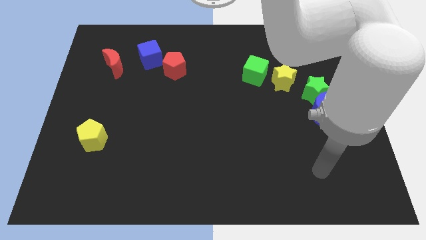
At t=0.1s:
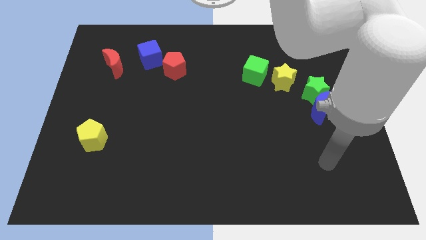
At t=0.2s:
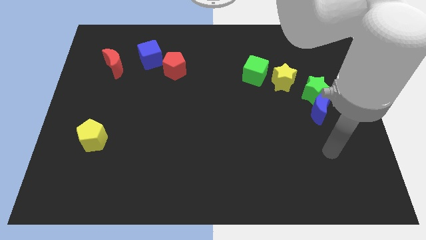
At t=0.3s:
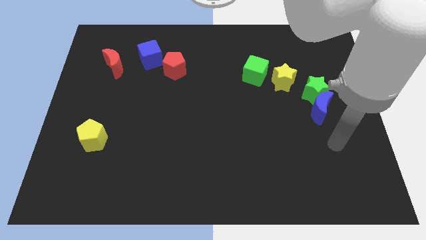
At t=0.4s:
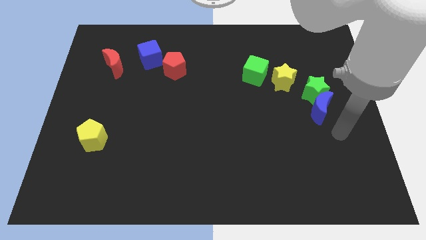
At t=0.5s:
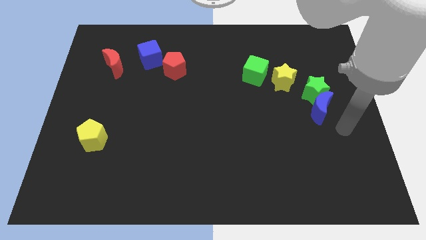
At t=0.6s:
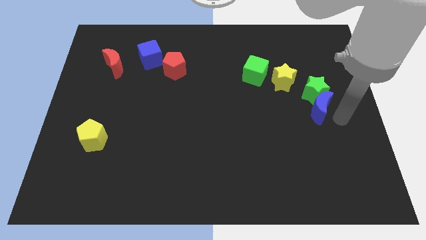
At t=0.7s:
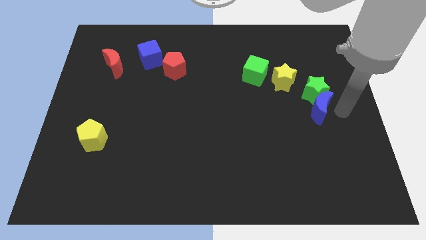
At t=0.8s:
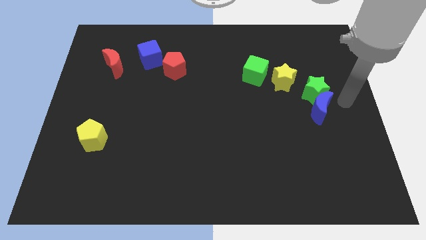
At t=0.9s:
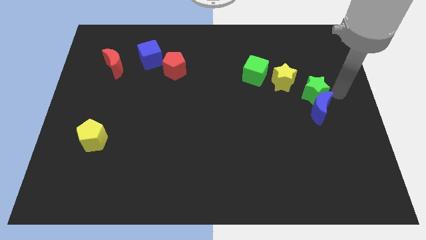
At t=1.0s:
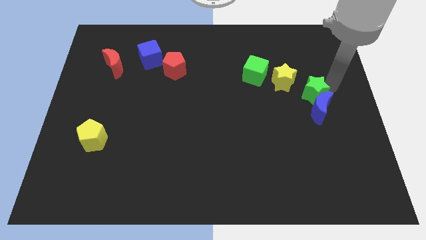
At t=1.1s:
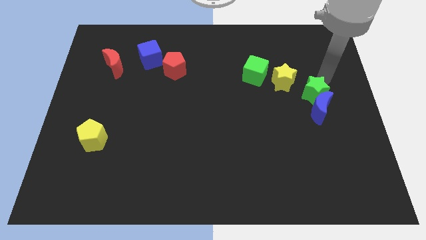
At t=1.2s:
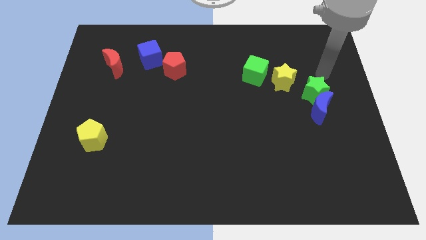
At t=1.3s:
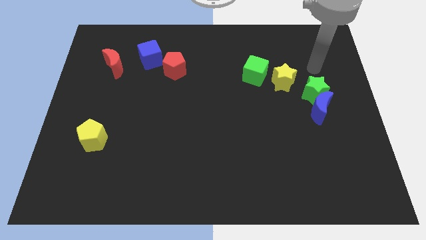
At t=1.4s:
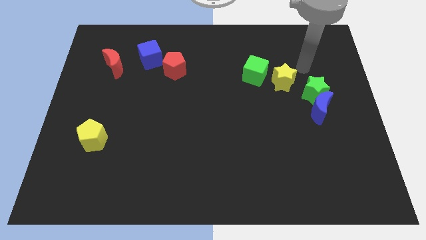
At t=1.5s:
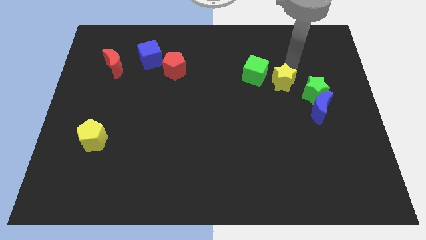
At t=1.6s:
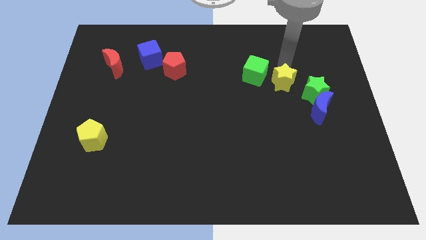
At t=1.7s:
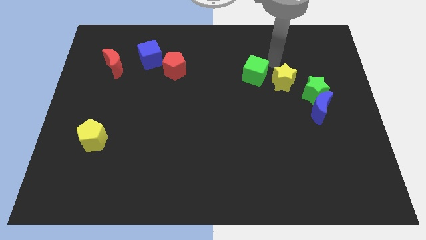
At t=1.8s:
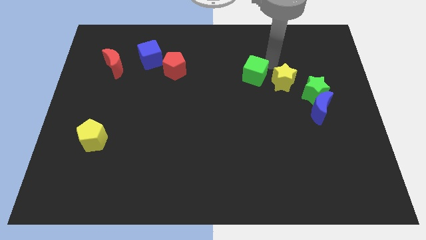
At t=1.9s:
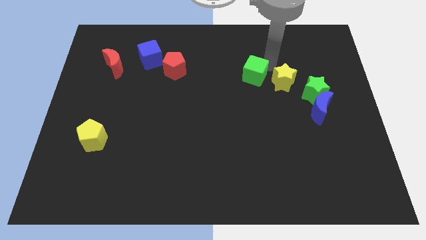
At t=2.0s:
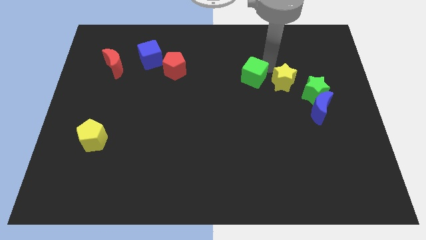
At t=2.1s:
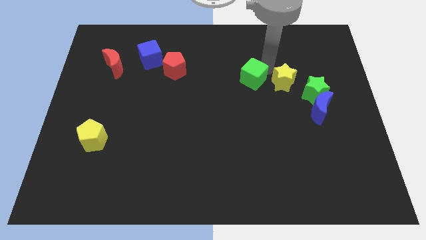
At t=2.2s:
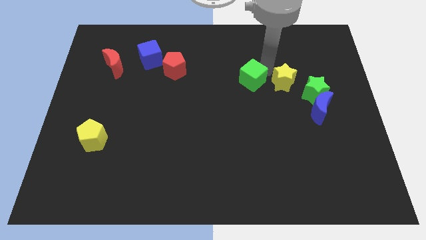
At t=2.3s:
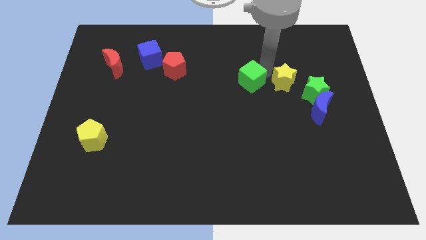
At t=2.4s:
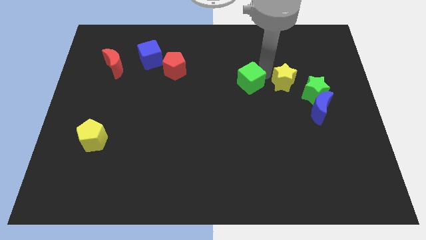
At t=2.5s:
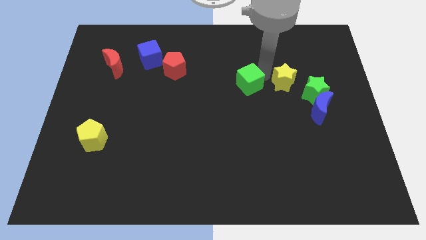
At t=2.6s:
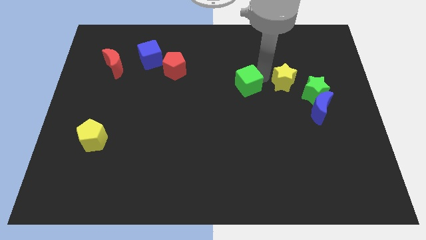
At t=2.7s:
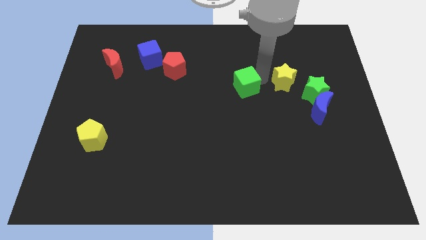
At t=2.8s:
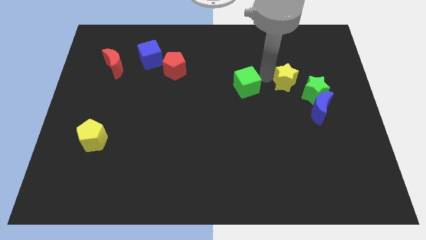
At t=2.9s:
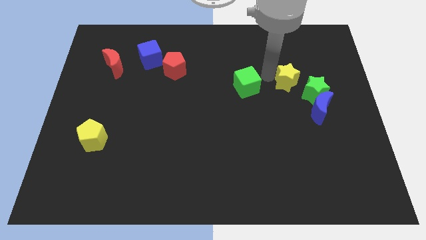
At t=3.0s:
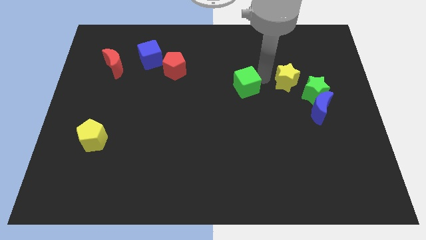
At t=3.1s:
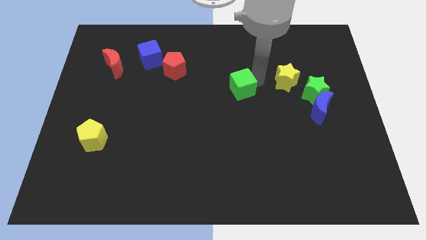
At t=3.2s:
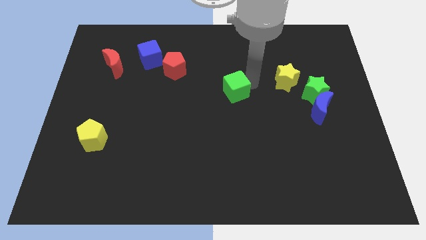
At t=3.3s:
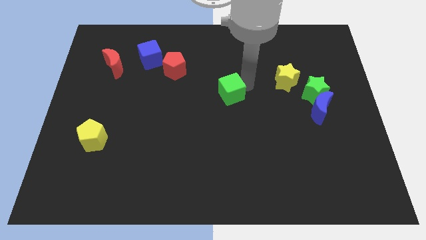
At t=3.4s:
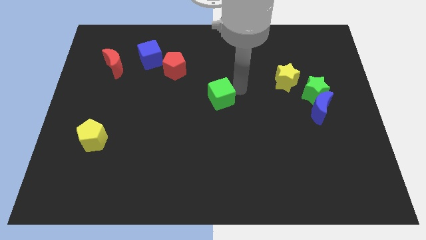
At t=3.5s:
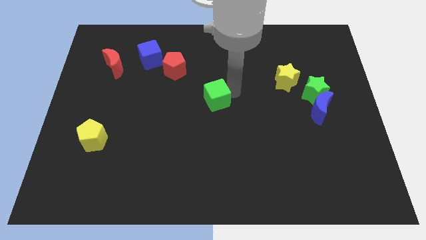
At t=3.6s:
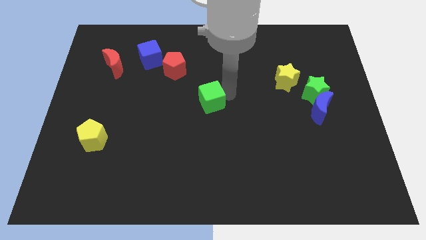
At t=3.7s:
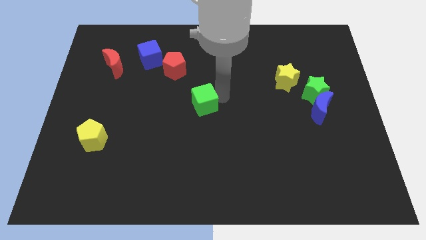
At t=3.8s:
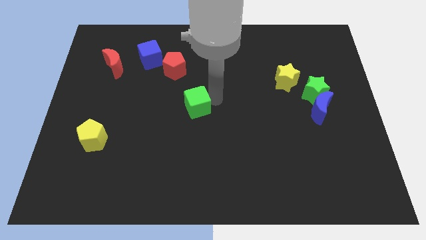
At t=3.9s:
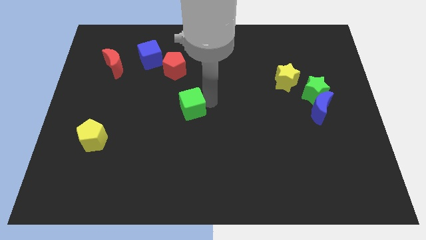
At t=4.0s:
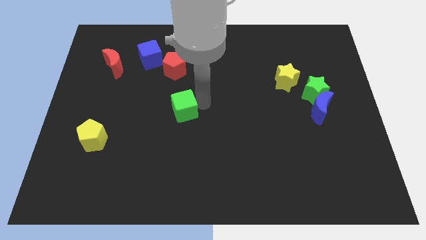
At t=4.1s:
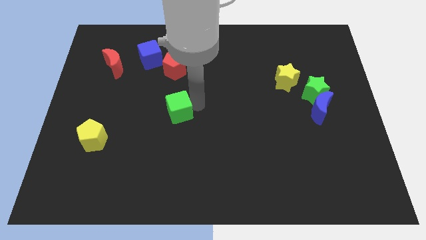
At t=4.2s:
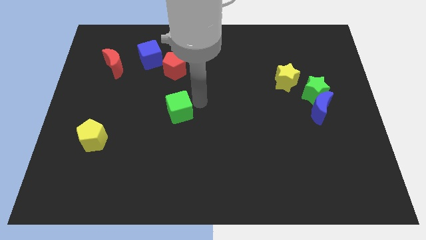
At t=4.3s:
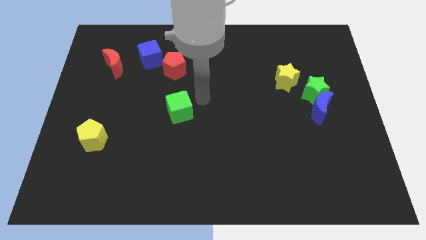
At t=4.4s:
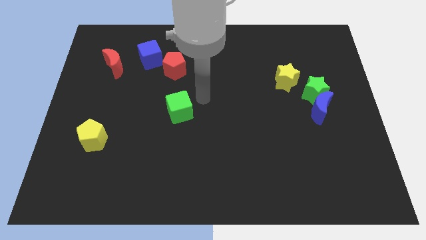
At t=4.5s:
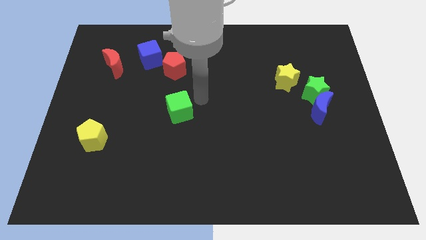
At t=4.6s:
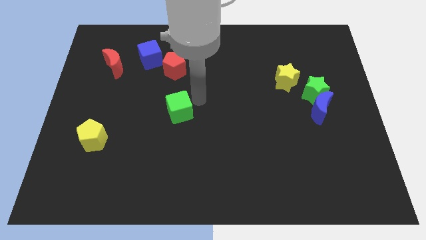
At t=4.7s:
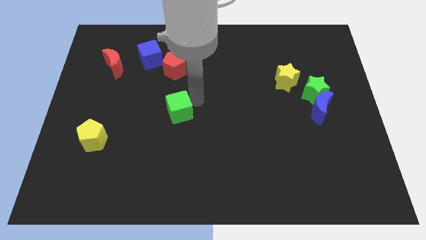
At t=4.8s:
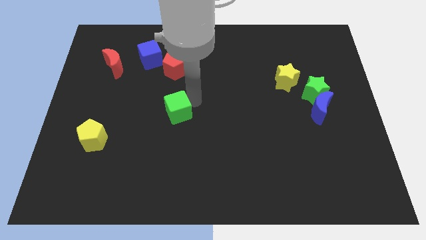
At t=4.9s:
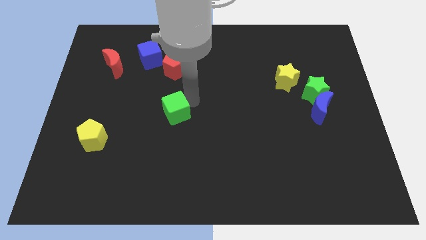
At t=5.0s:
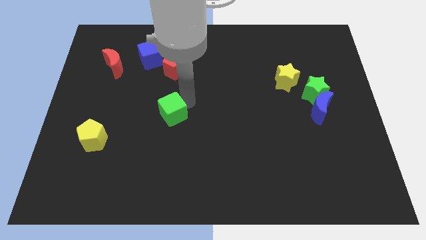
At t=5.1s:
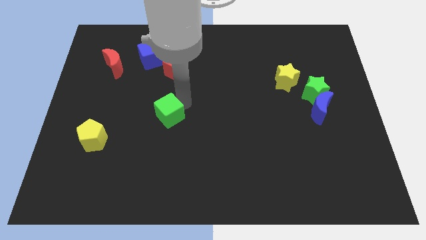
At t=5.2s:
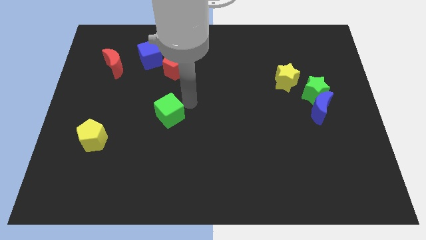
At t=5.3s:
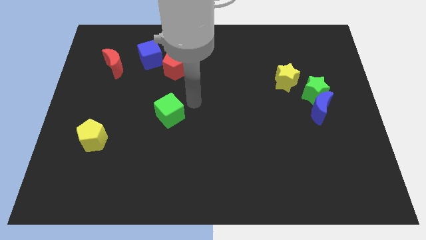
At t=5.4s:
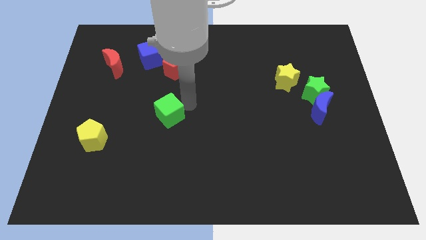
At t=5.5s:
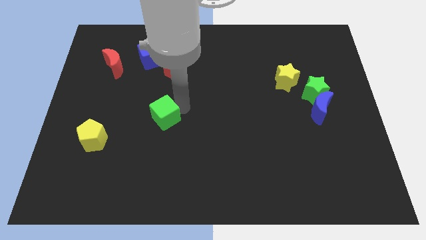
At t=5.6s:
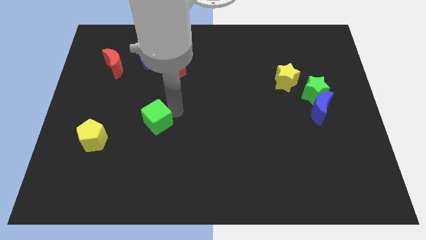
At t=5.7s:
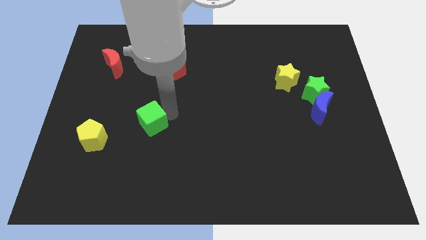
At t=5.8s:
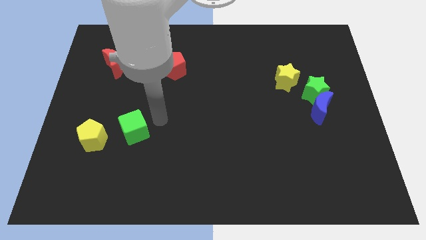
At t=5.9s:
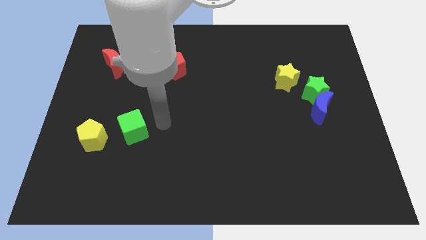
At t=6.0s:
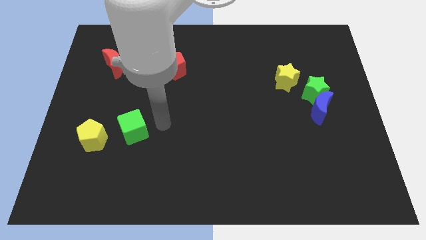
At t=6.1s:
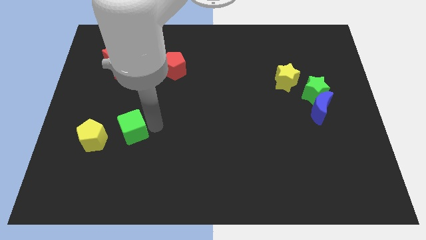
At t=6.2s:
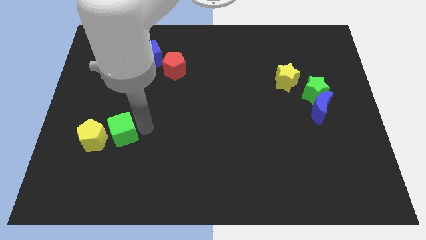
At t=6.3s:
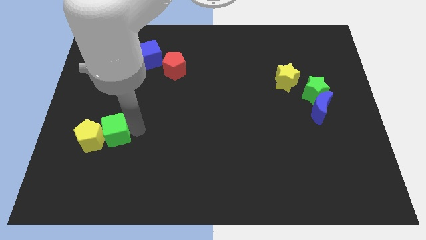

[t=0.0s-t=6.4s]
slide the green cube towards the yellow pentagon

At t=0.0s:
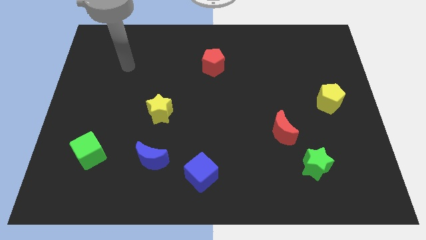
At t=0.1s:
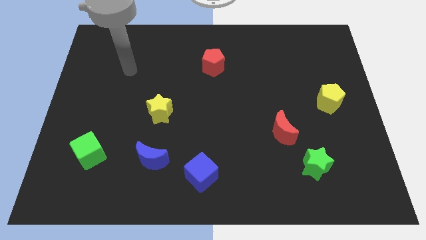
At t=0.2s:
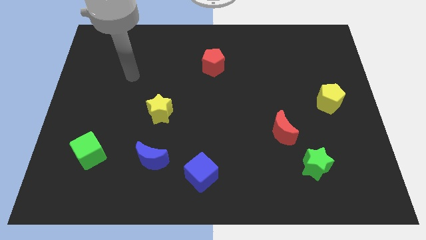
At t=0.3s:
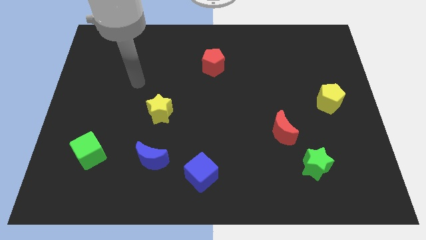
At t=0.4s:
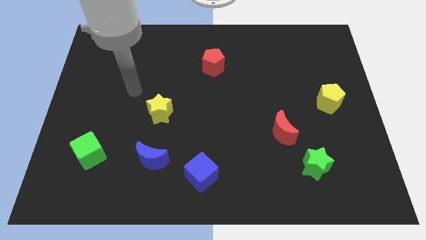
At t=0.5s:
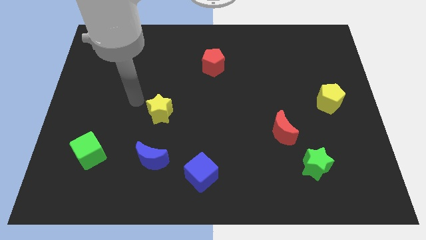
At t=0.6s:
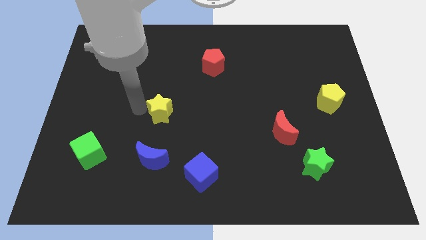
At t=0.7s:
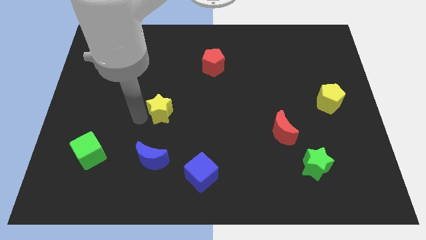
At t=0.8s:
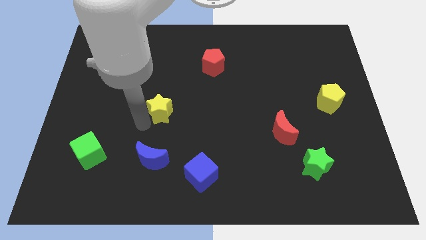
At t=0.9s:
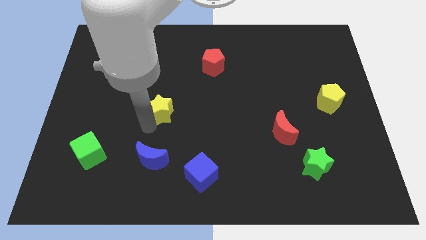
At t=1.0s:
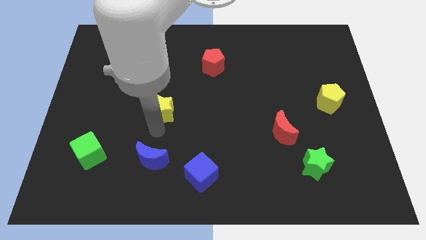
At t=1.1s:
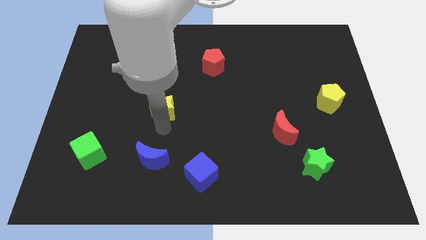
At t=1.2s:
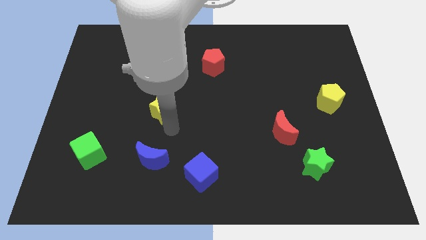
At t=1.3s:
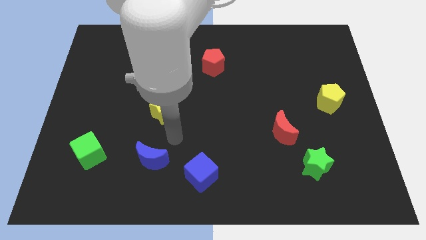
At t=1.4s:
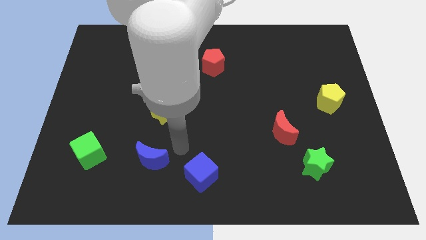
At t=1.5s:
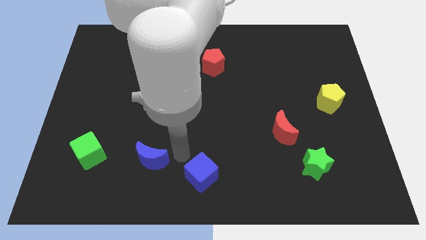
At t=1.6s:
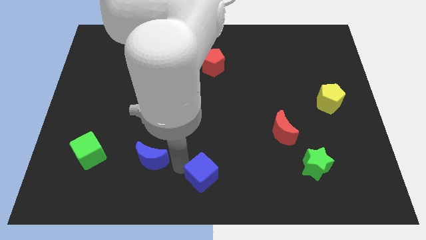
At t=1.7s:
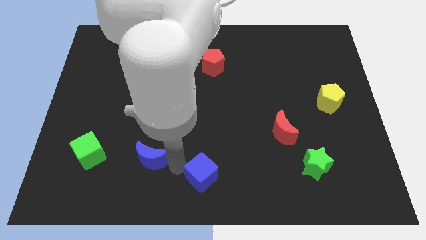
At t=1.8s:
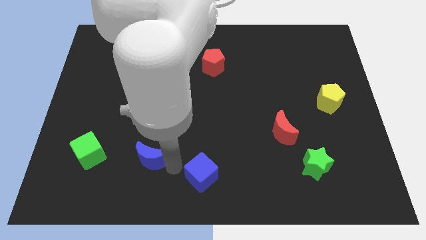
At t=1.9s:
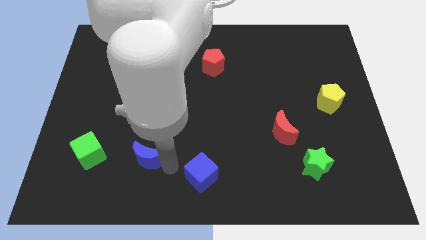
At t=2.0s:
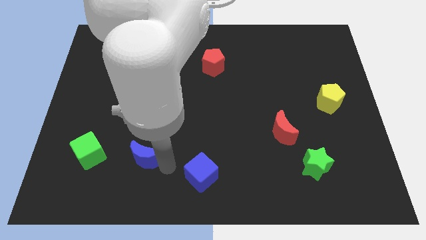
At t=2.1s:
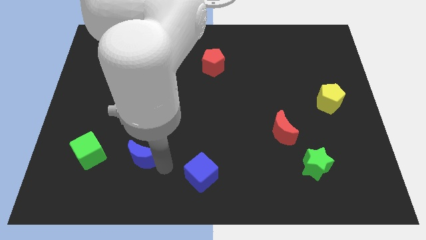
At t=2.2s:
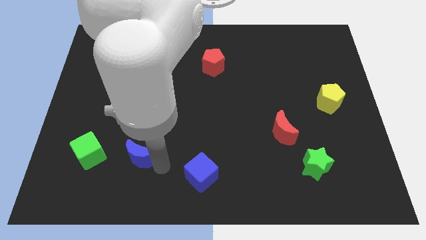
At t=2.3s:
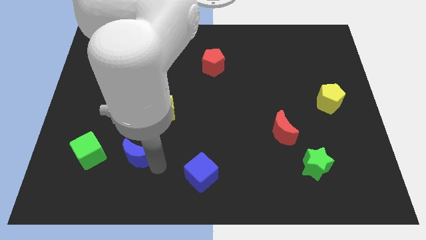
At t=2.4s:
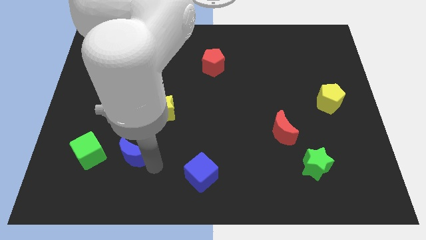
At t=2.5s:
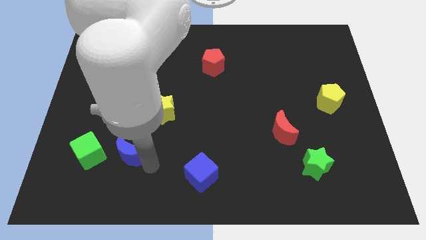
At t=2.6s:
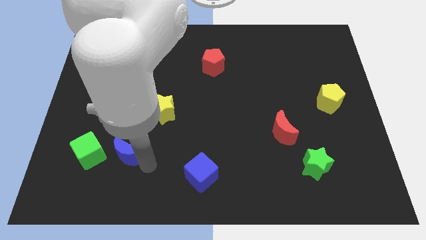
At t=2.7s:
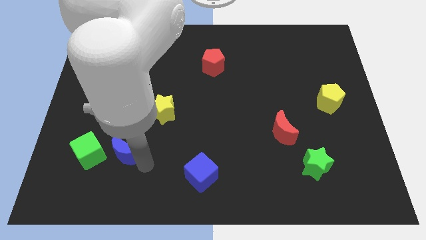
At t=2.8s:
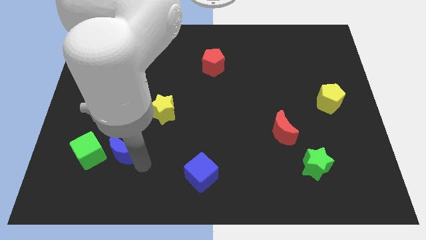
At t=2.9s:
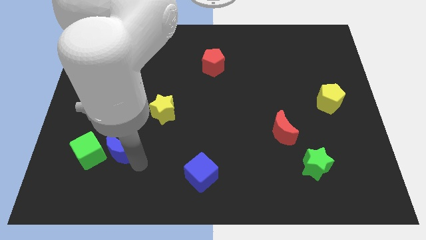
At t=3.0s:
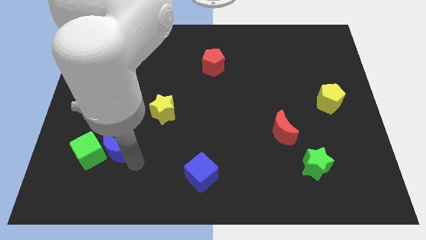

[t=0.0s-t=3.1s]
push the blue moon close to the green cube
